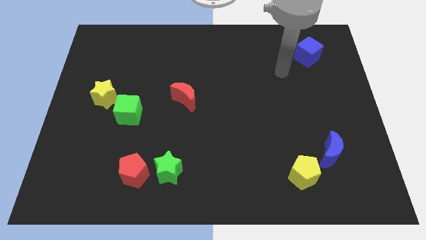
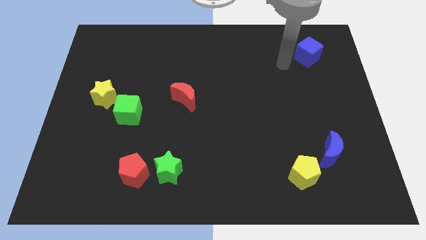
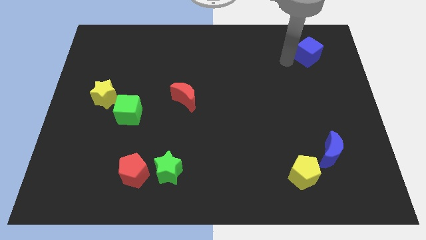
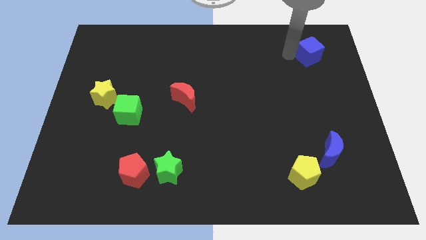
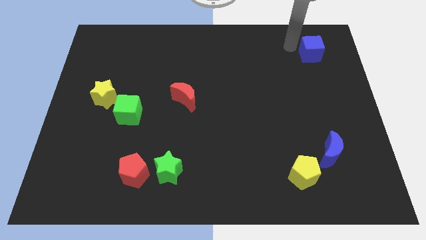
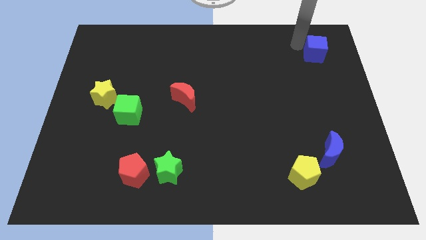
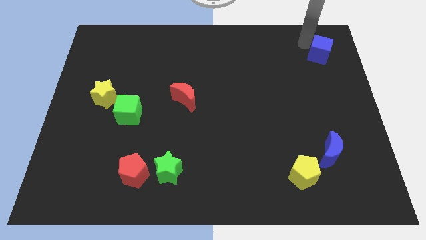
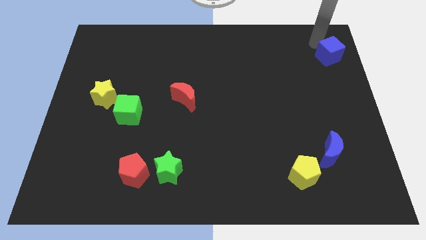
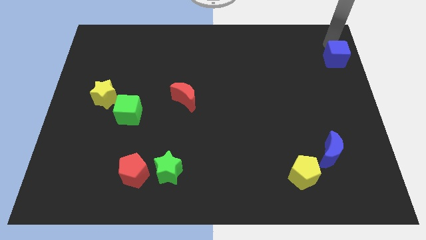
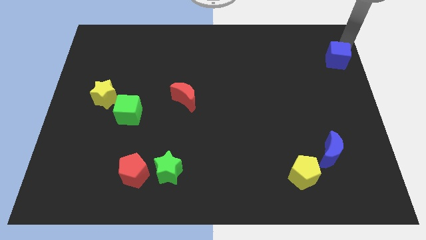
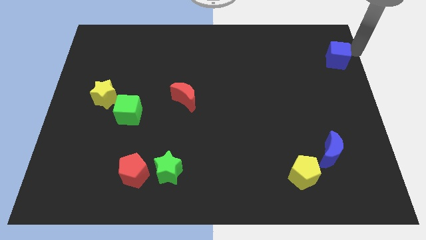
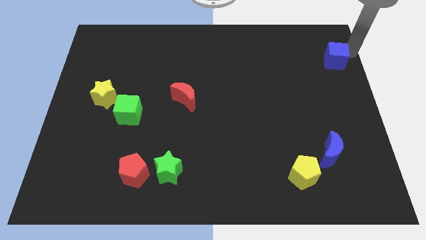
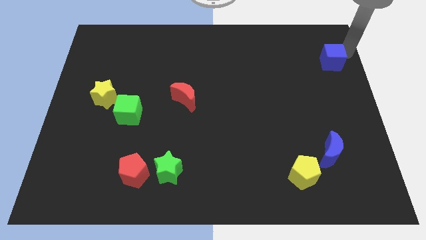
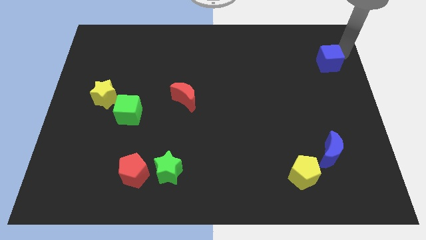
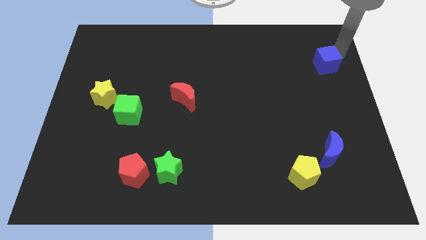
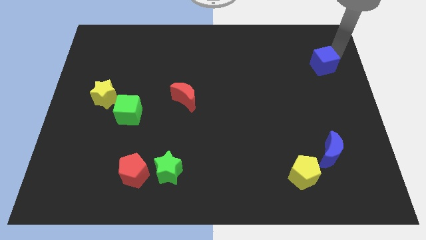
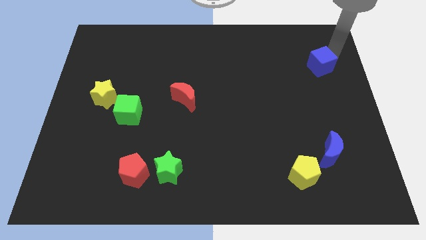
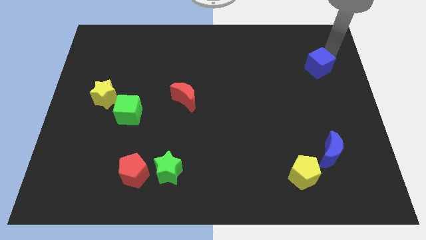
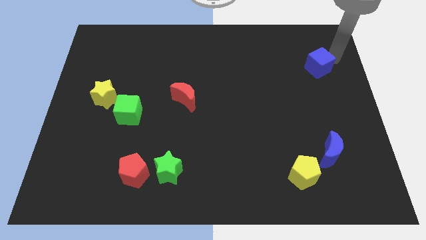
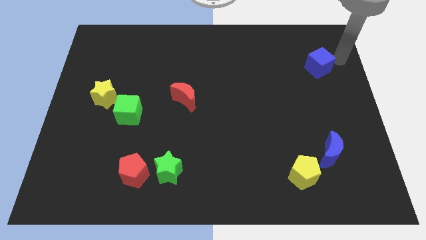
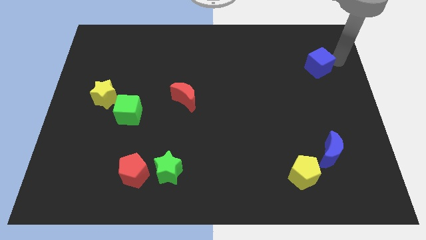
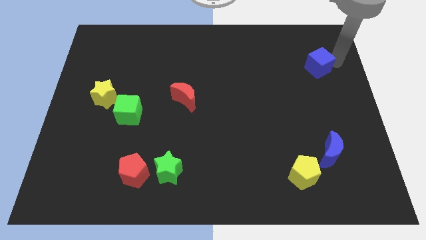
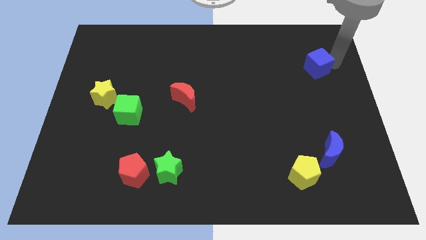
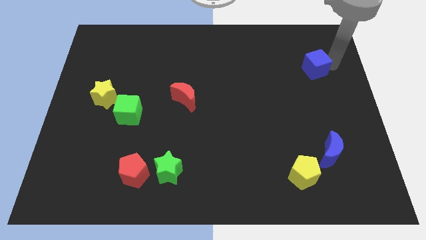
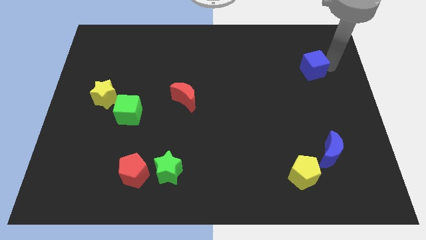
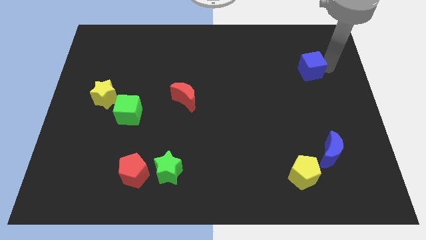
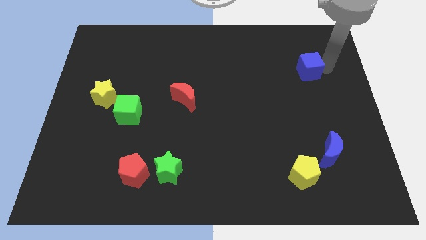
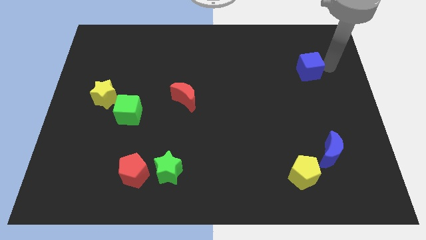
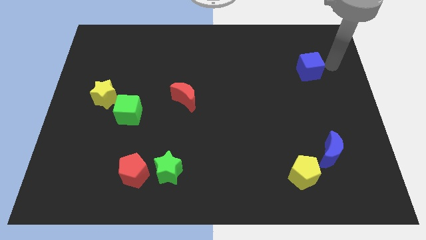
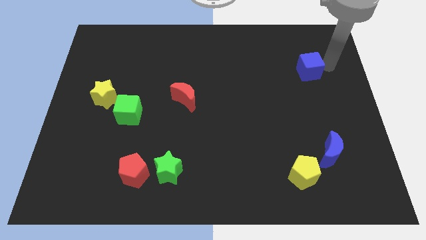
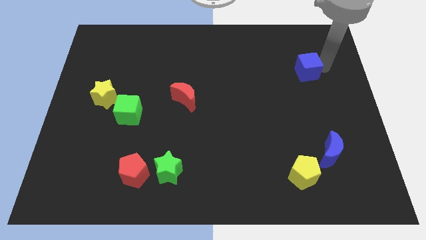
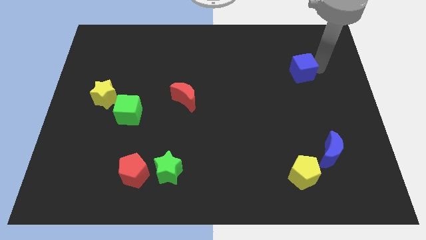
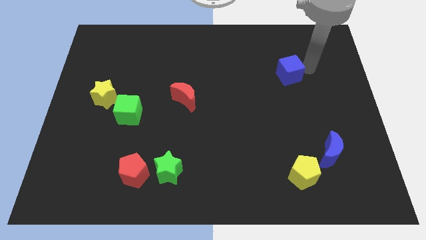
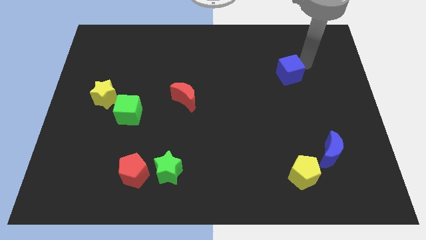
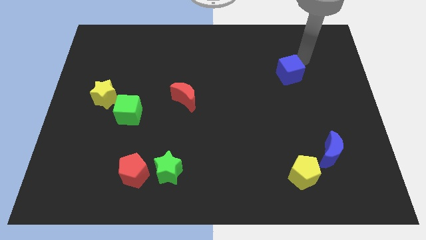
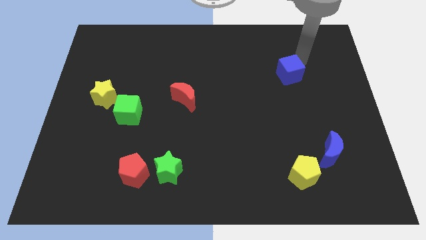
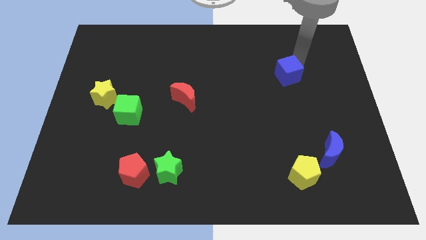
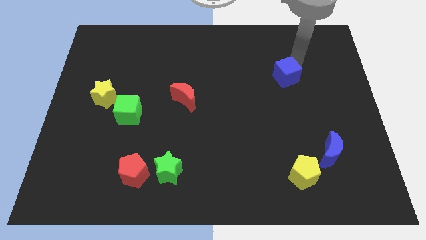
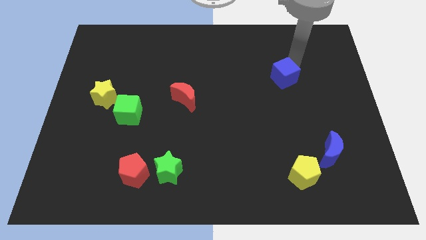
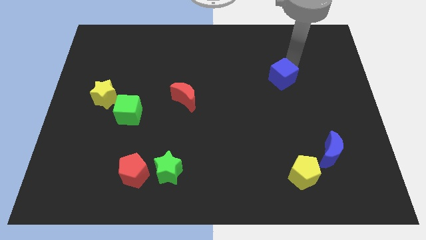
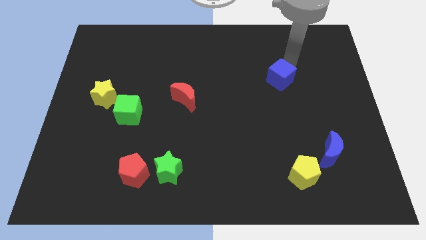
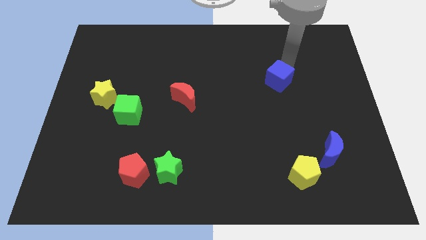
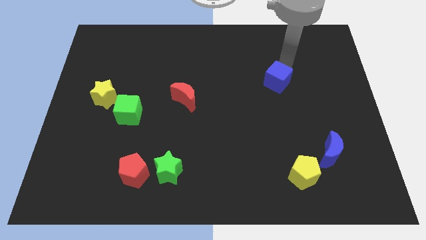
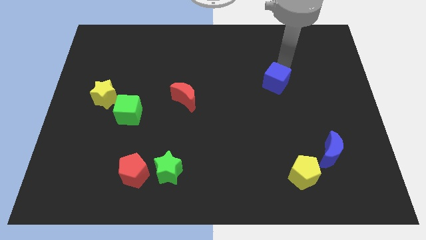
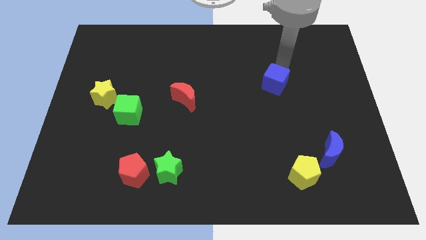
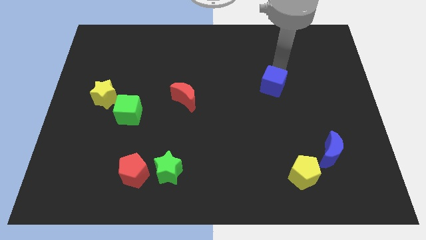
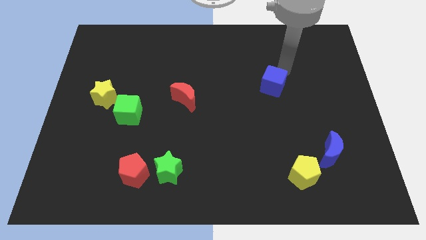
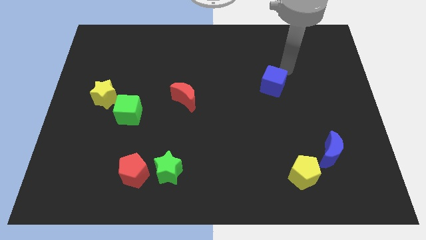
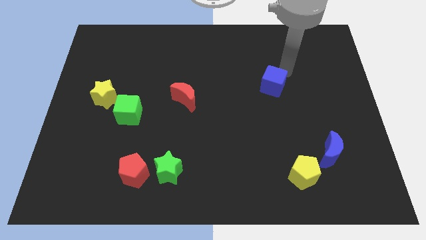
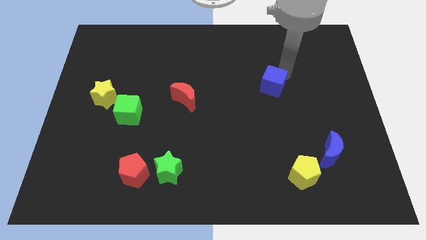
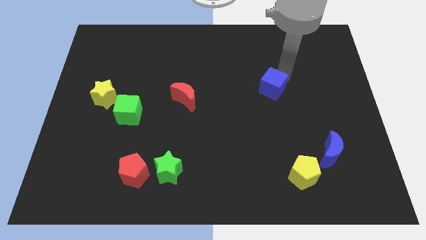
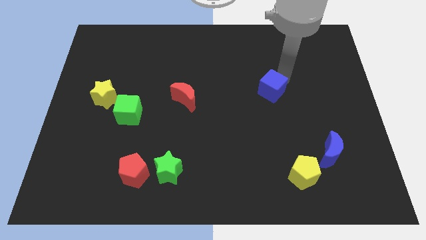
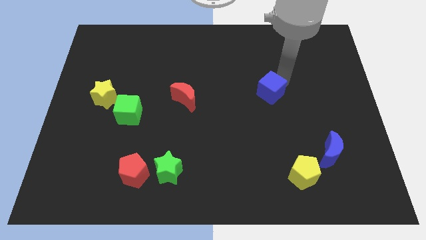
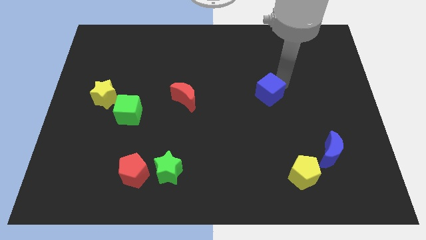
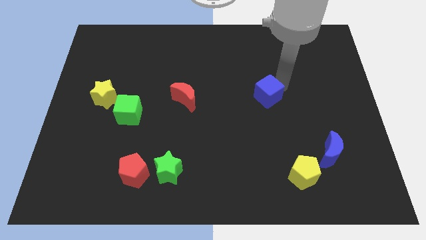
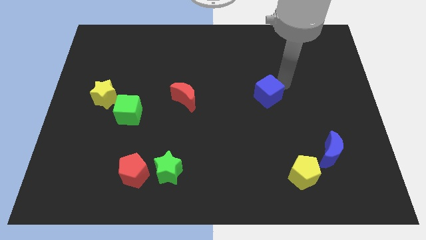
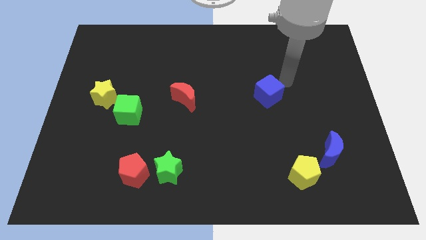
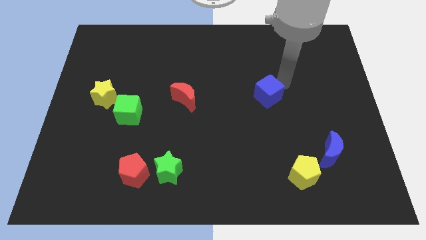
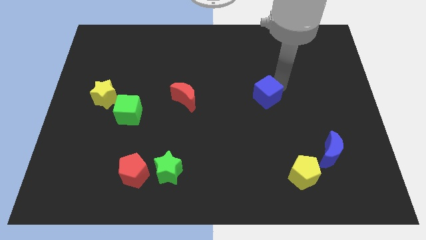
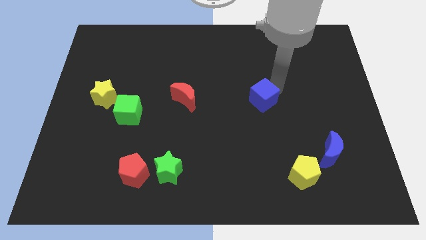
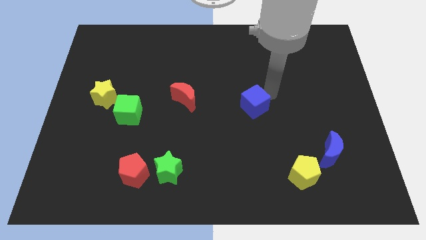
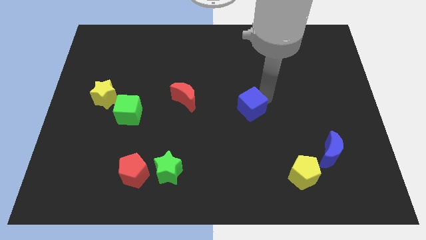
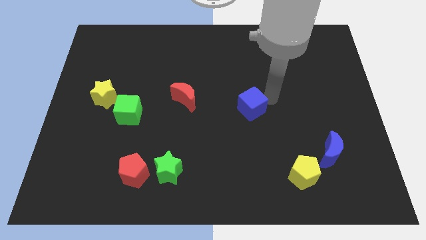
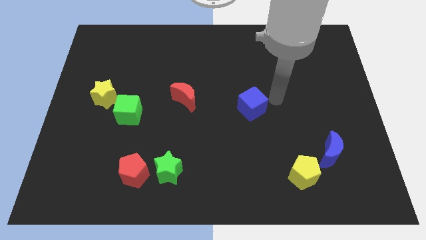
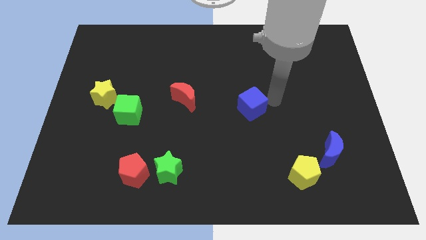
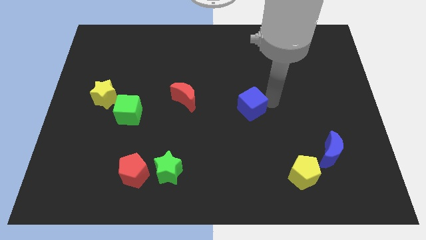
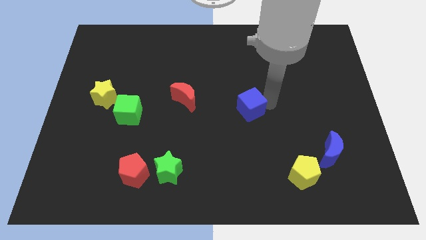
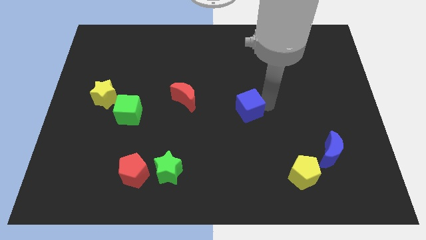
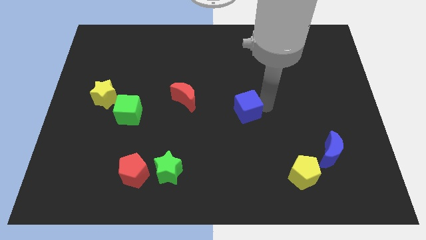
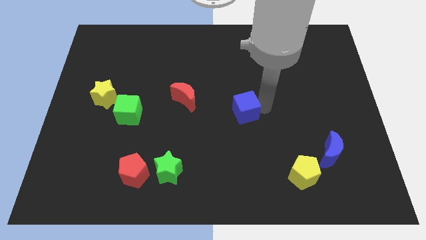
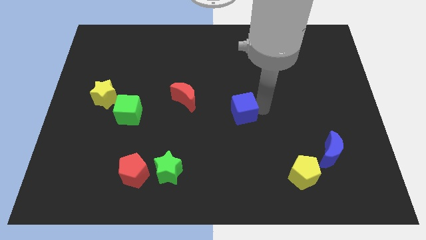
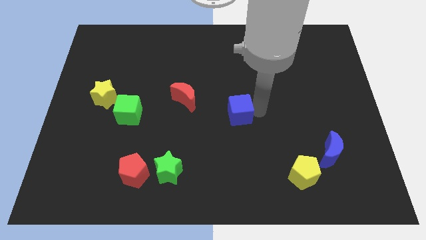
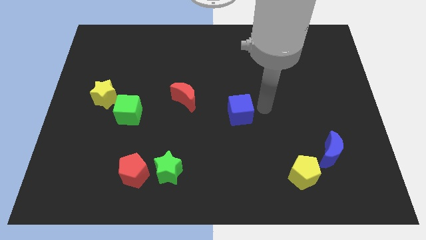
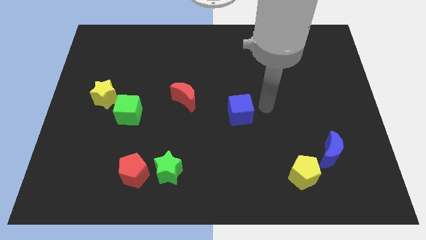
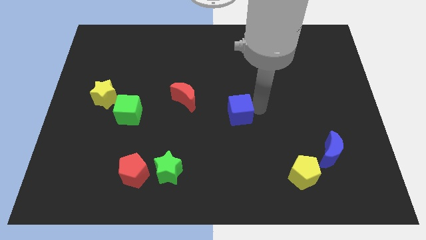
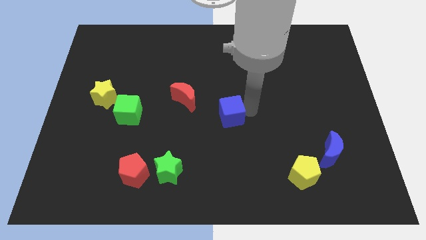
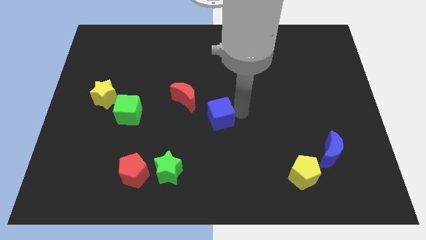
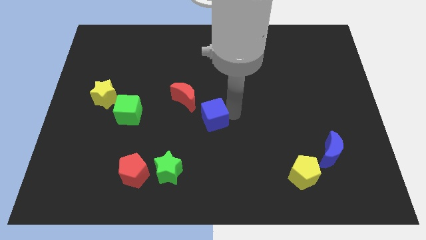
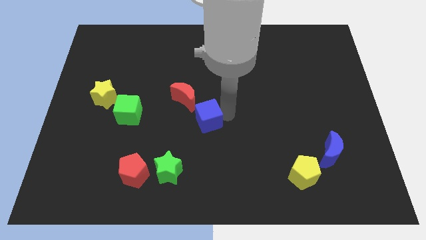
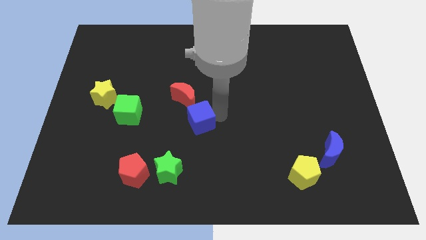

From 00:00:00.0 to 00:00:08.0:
put the blue cube to the bottom of the red moon

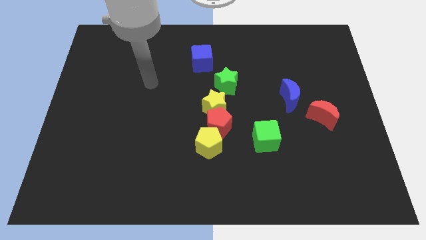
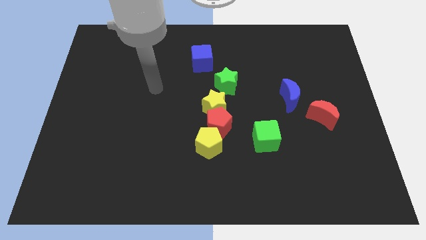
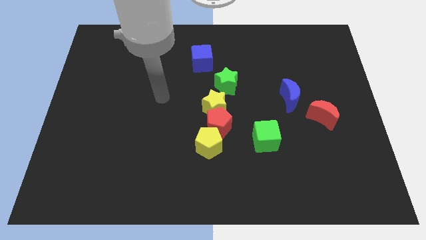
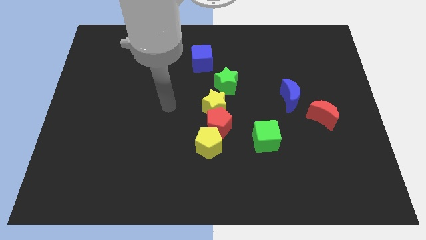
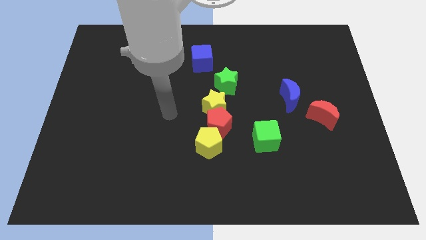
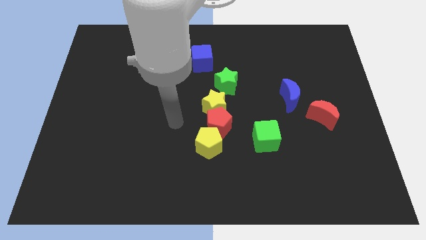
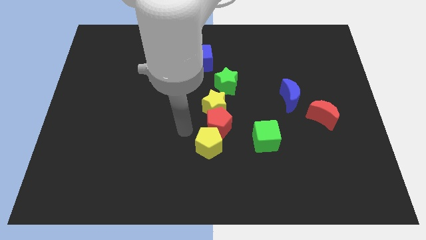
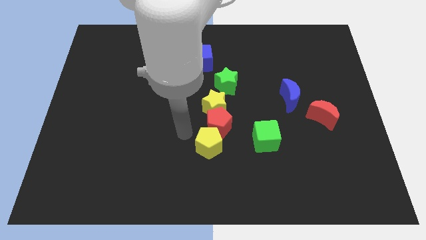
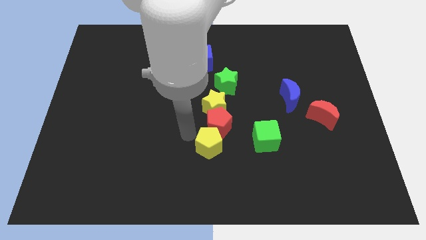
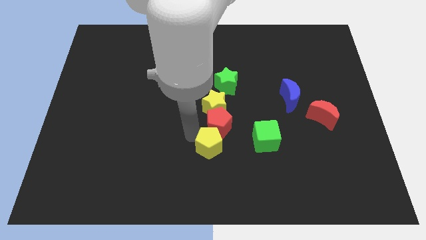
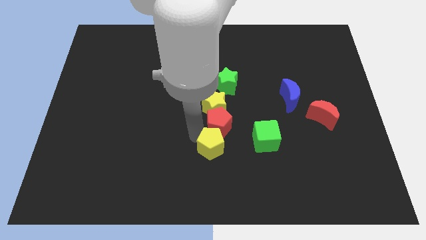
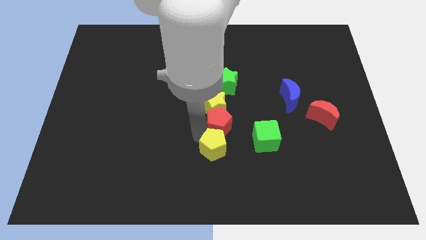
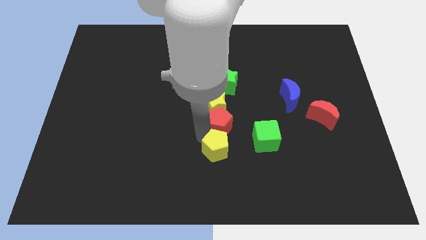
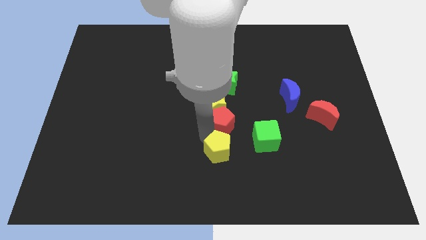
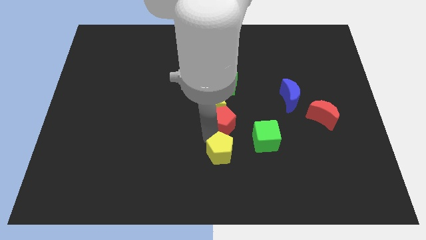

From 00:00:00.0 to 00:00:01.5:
put the yellow pentagon to the bottom left side of the green cube
